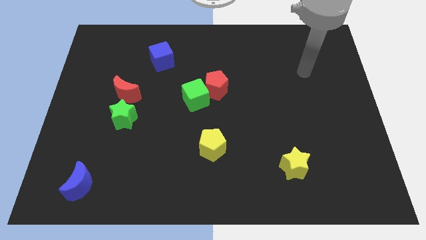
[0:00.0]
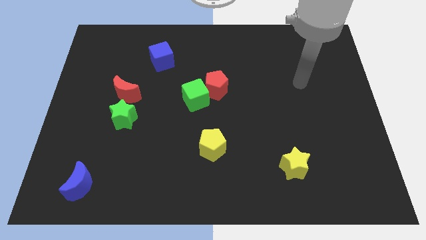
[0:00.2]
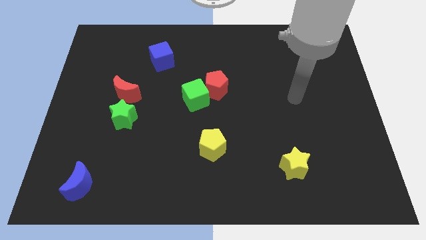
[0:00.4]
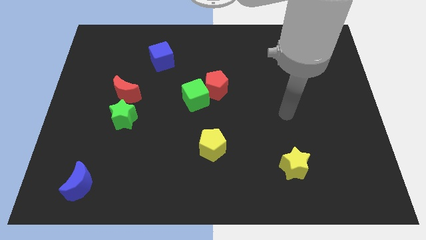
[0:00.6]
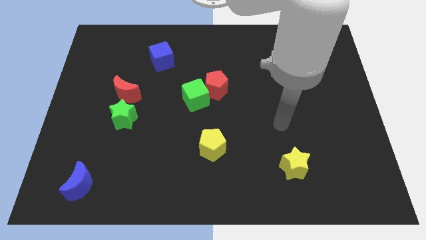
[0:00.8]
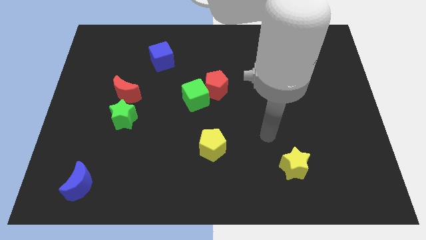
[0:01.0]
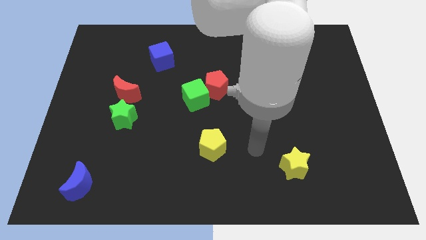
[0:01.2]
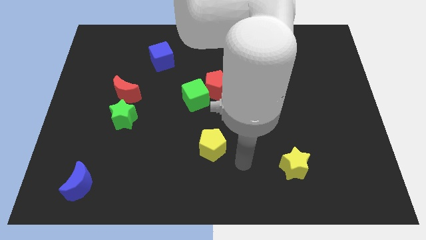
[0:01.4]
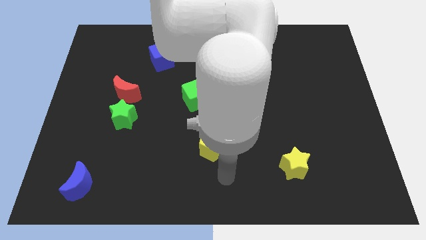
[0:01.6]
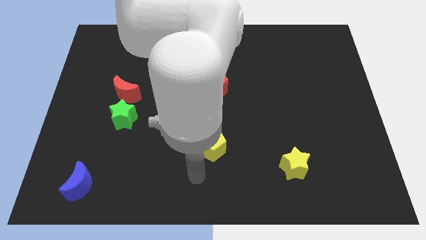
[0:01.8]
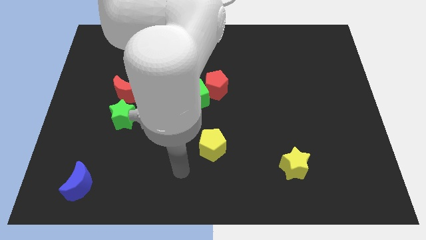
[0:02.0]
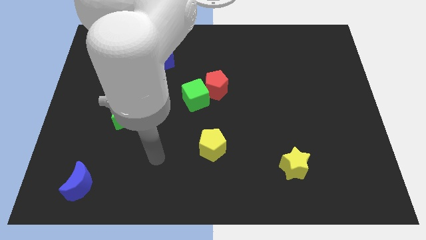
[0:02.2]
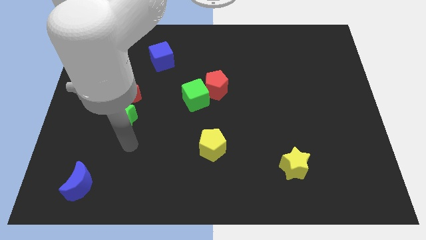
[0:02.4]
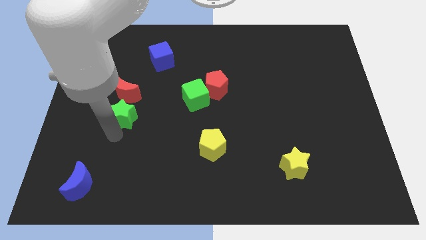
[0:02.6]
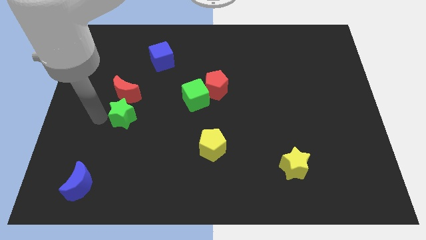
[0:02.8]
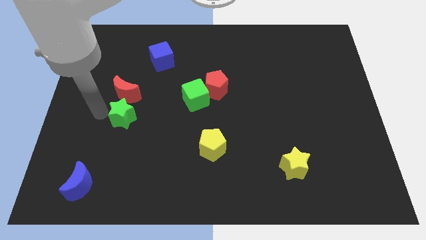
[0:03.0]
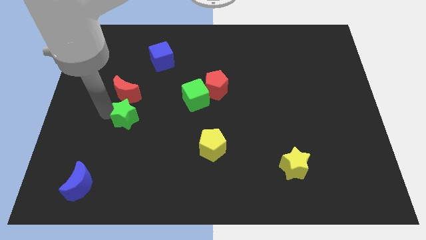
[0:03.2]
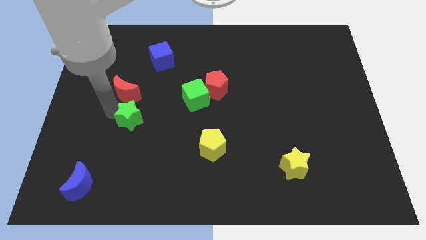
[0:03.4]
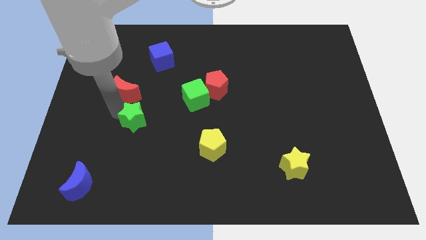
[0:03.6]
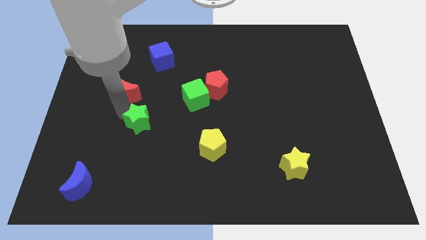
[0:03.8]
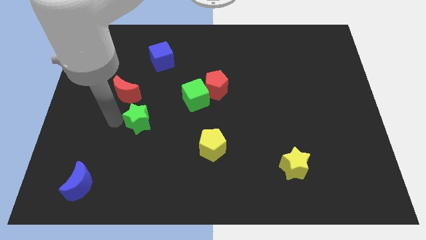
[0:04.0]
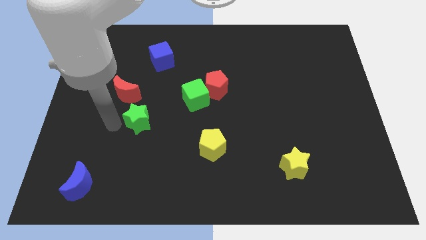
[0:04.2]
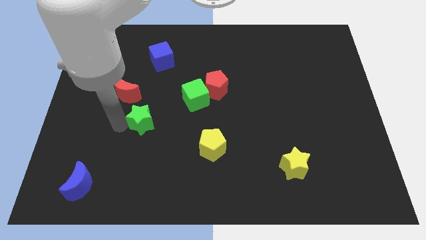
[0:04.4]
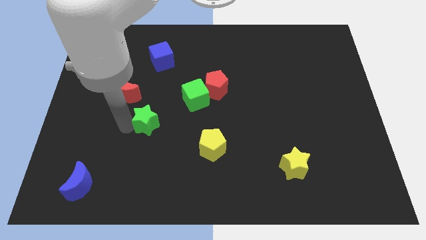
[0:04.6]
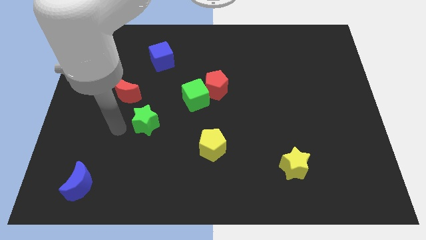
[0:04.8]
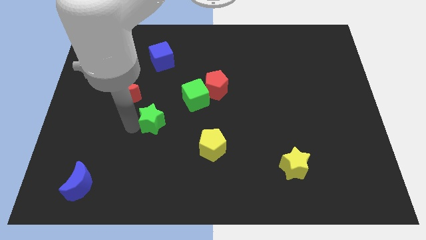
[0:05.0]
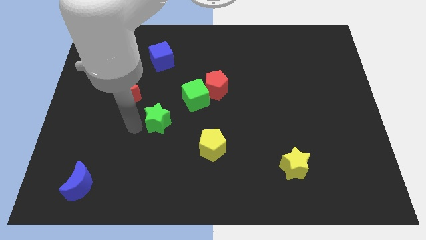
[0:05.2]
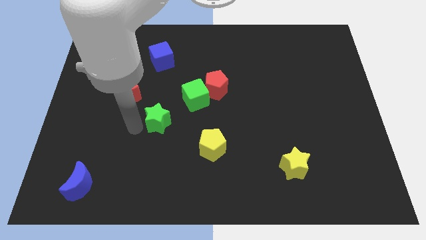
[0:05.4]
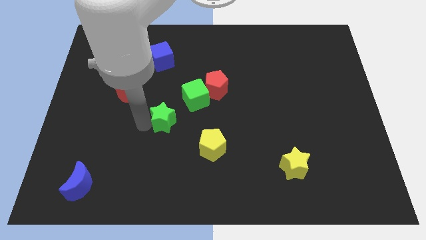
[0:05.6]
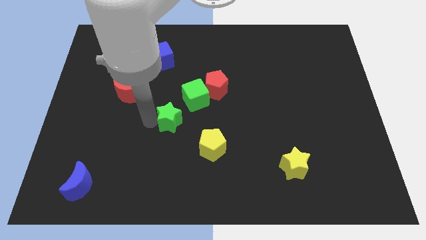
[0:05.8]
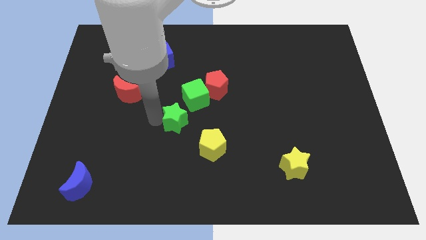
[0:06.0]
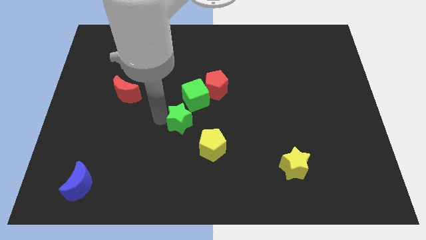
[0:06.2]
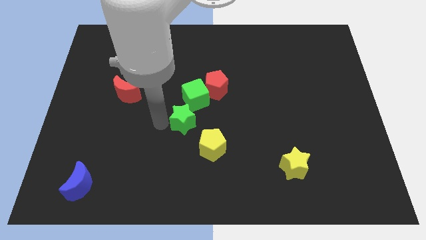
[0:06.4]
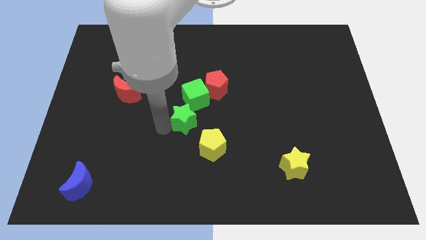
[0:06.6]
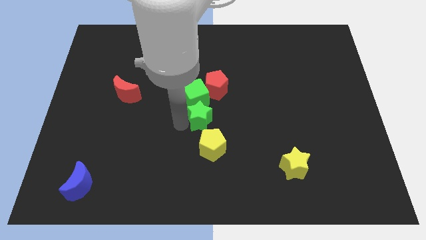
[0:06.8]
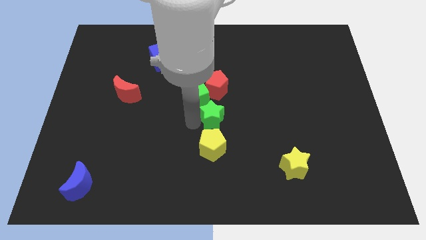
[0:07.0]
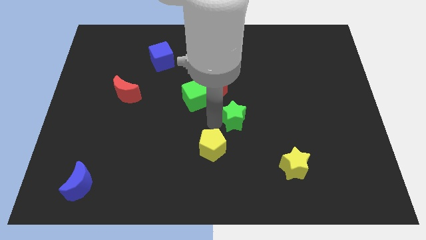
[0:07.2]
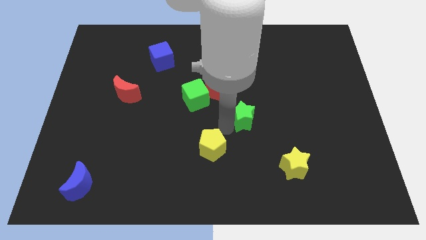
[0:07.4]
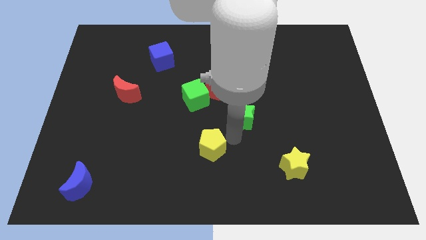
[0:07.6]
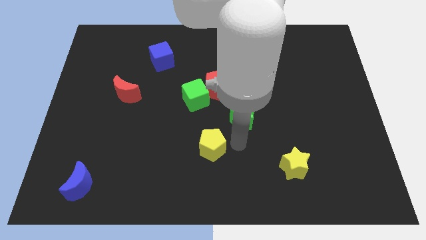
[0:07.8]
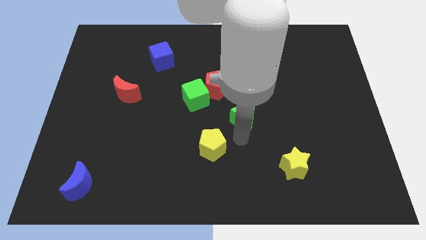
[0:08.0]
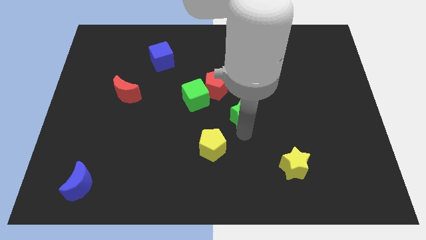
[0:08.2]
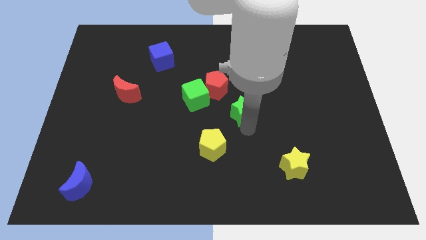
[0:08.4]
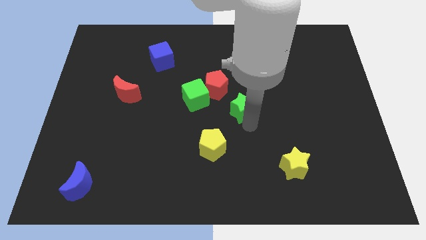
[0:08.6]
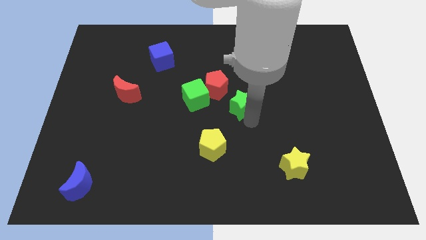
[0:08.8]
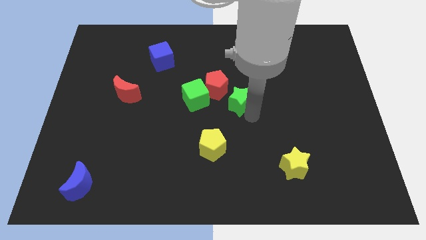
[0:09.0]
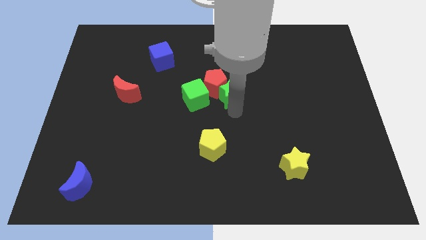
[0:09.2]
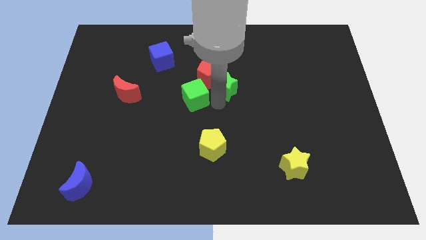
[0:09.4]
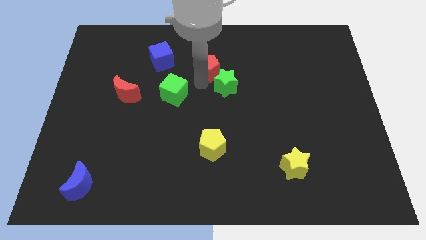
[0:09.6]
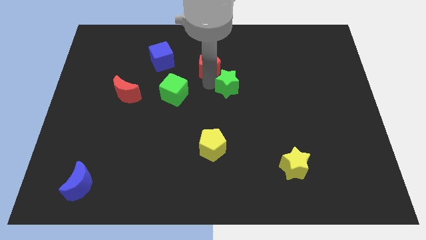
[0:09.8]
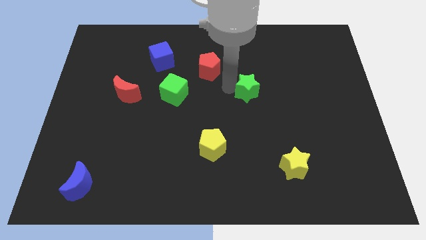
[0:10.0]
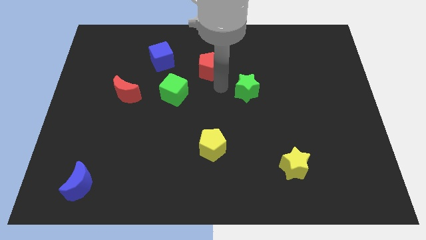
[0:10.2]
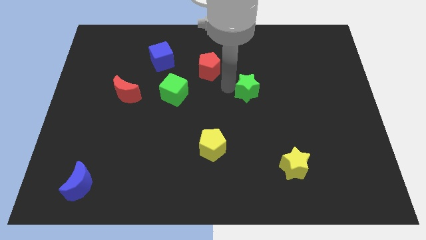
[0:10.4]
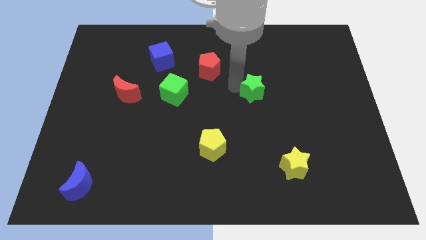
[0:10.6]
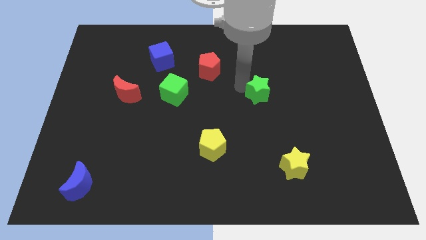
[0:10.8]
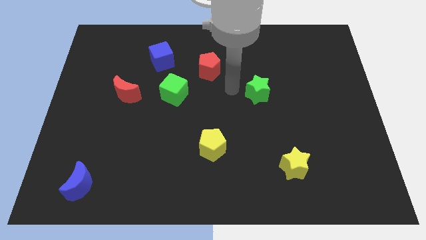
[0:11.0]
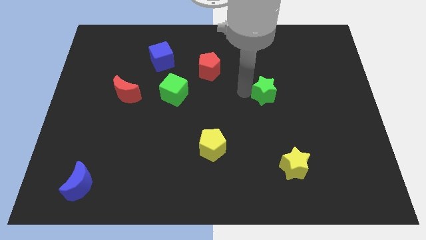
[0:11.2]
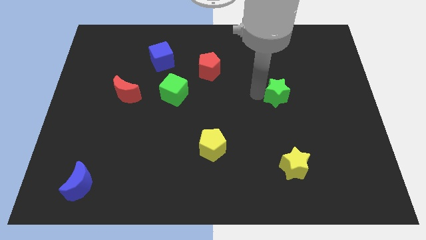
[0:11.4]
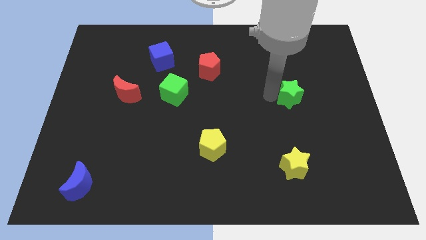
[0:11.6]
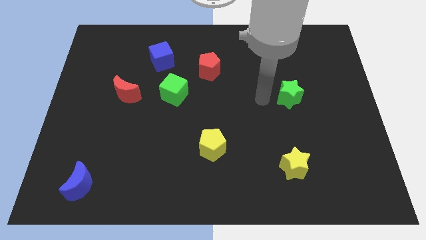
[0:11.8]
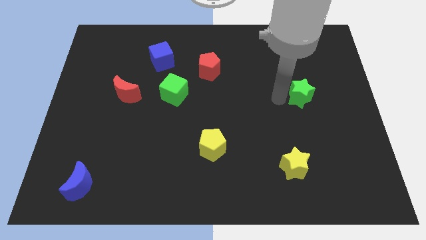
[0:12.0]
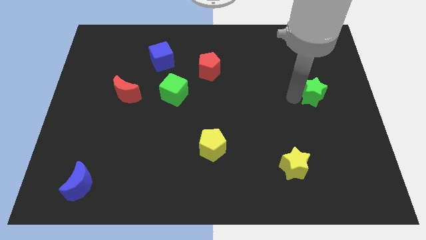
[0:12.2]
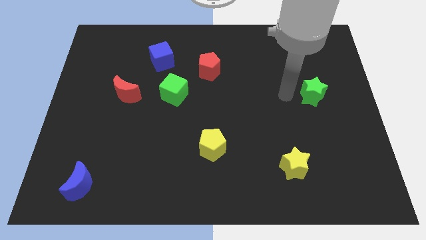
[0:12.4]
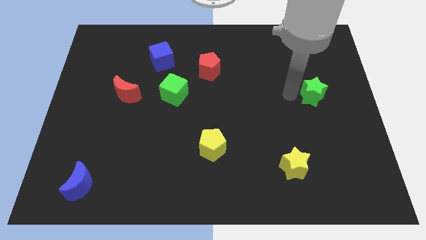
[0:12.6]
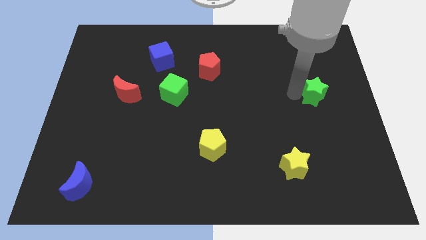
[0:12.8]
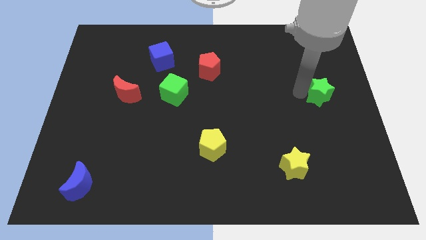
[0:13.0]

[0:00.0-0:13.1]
move the green star to the center right
